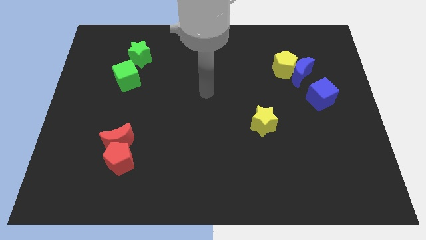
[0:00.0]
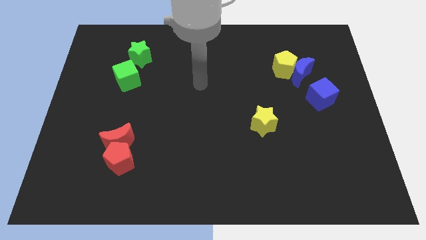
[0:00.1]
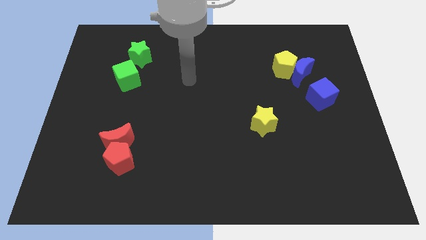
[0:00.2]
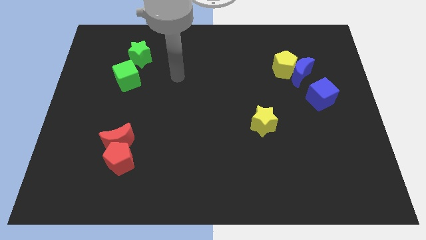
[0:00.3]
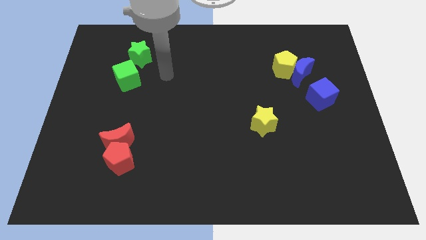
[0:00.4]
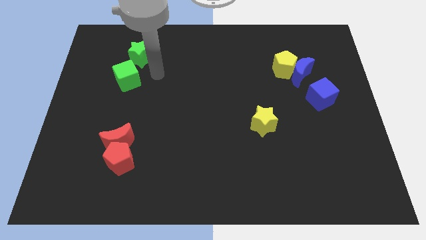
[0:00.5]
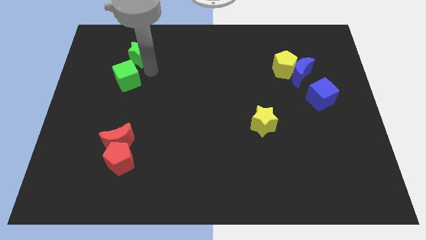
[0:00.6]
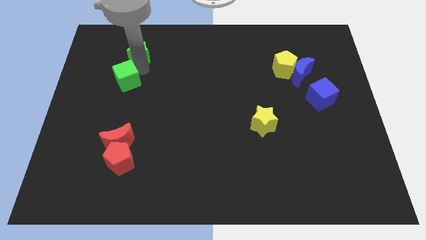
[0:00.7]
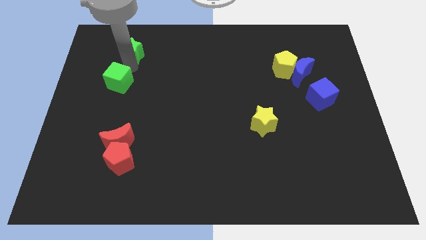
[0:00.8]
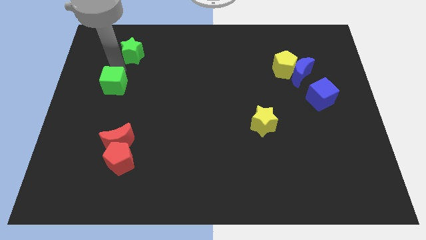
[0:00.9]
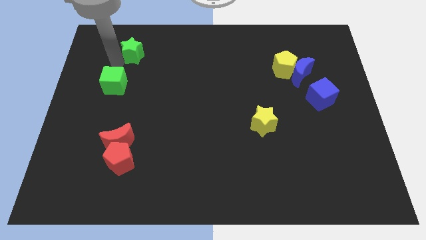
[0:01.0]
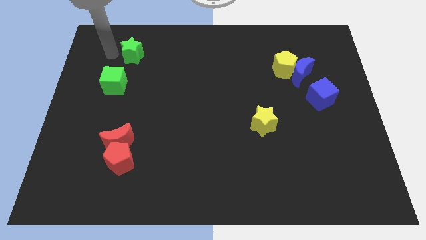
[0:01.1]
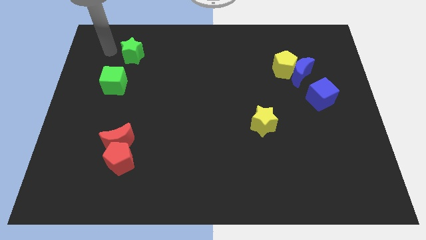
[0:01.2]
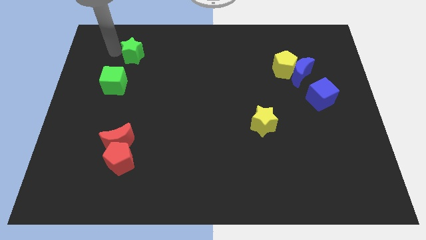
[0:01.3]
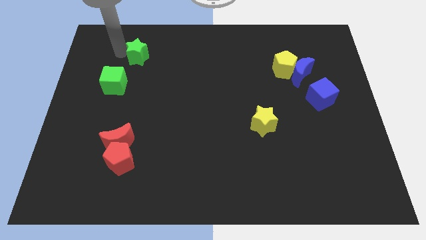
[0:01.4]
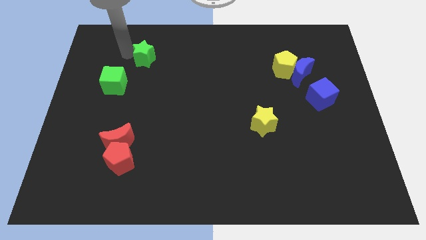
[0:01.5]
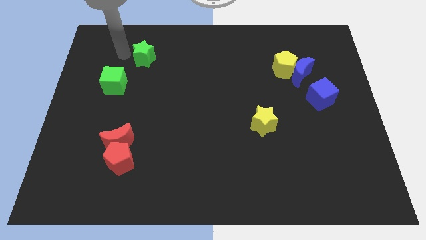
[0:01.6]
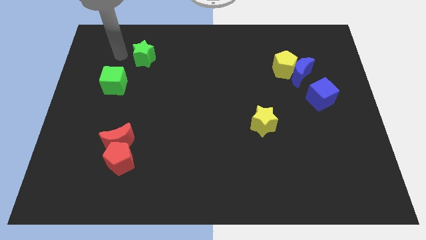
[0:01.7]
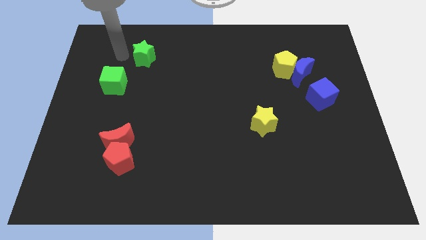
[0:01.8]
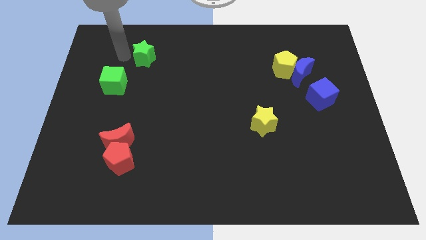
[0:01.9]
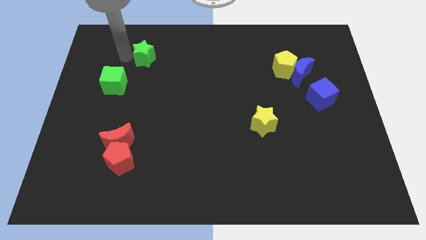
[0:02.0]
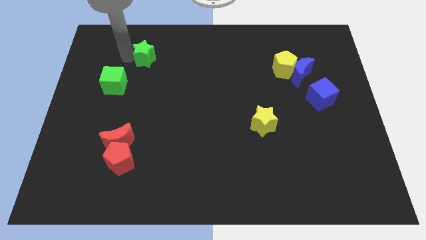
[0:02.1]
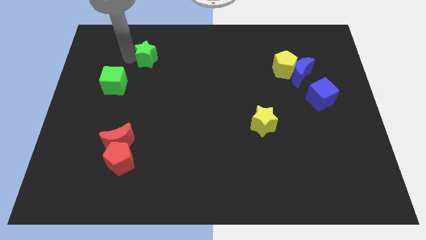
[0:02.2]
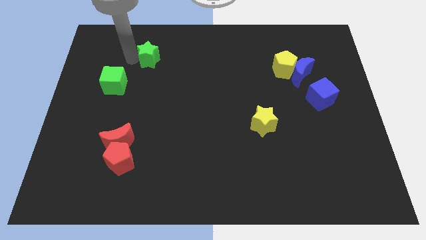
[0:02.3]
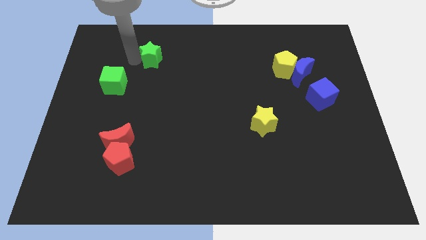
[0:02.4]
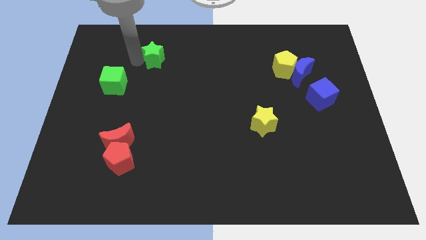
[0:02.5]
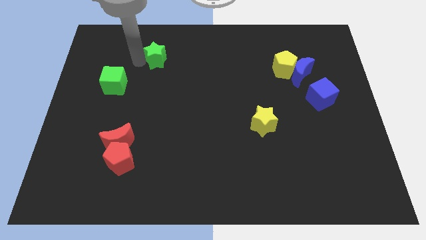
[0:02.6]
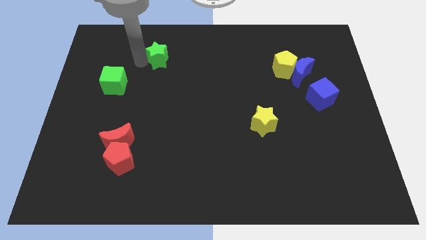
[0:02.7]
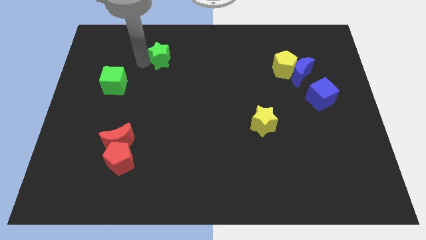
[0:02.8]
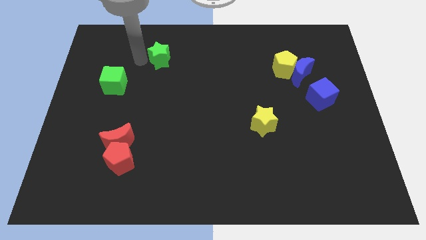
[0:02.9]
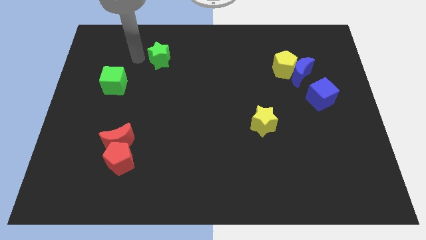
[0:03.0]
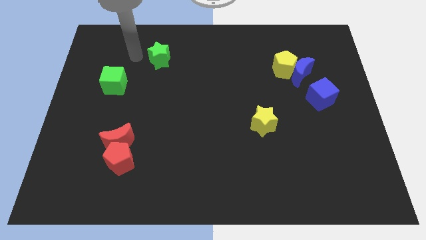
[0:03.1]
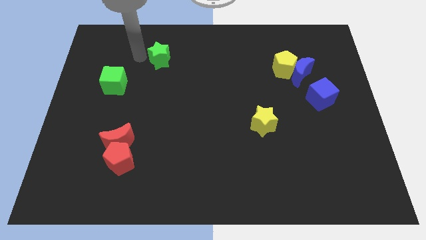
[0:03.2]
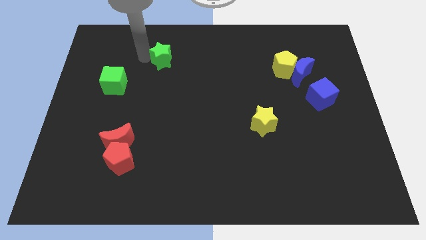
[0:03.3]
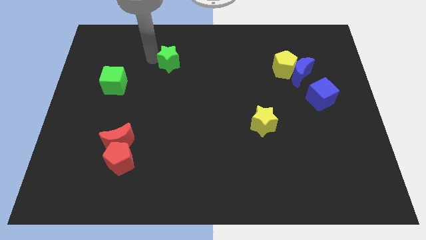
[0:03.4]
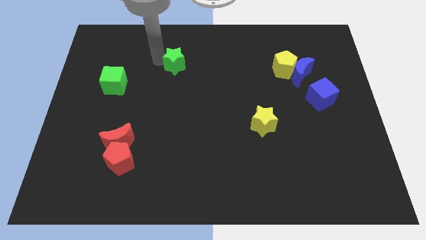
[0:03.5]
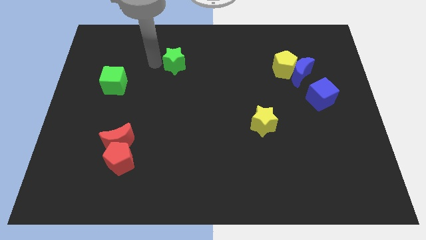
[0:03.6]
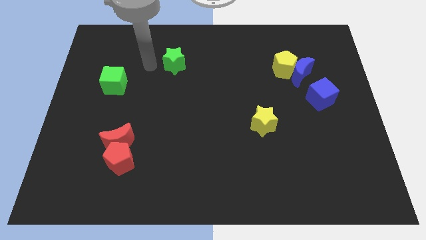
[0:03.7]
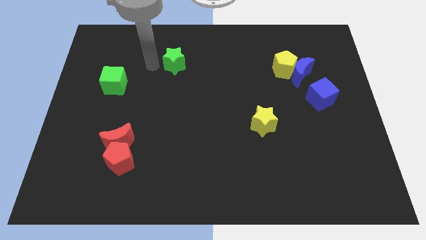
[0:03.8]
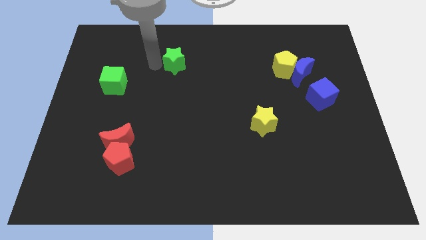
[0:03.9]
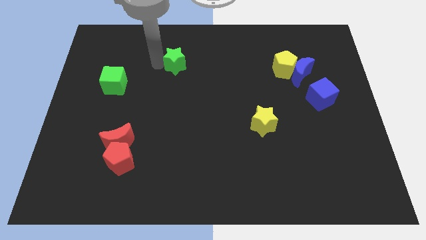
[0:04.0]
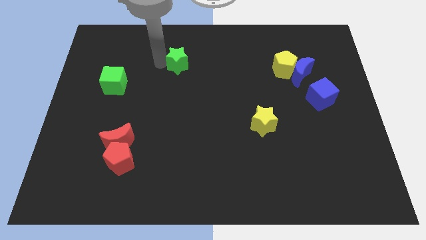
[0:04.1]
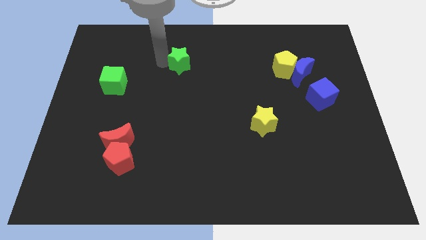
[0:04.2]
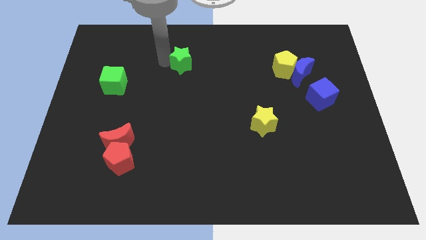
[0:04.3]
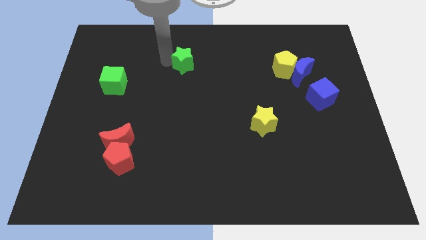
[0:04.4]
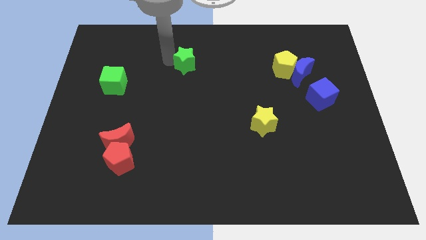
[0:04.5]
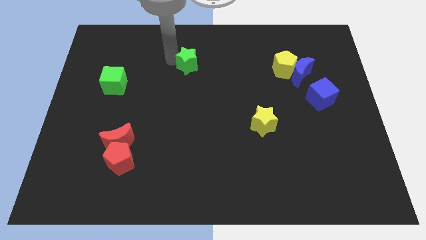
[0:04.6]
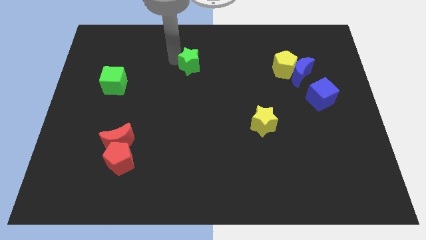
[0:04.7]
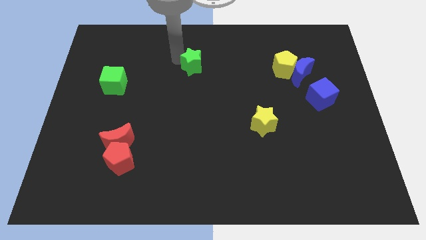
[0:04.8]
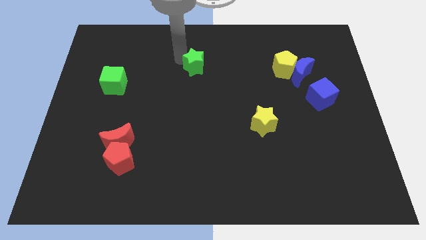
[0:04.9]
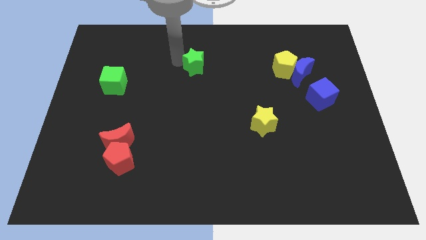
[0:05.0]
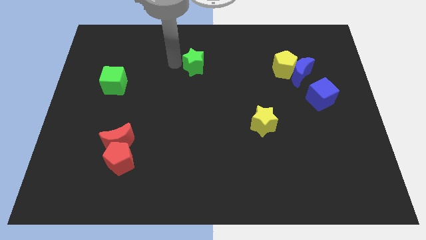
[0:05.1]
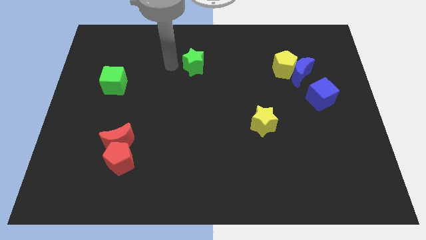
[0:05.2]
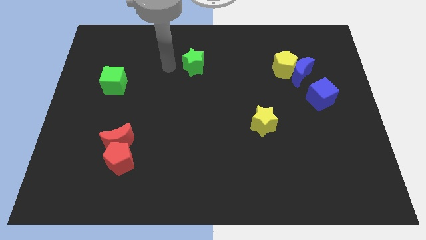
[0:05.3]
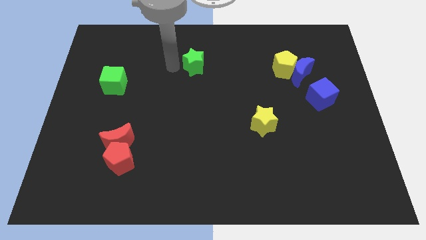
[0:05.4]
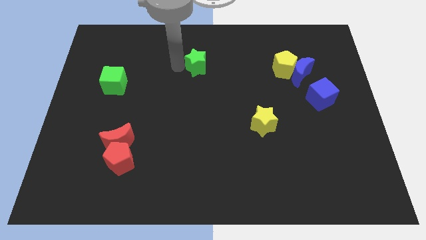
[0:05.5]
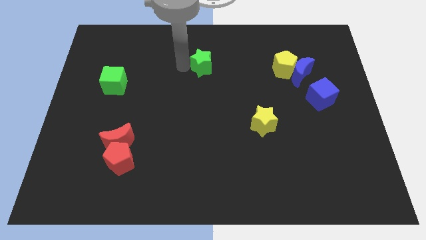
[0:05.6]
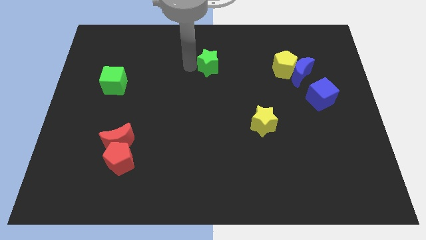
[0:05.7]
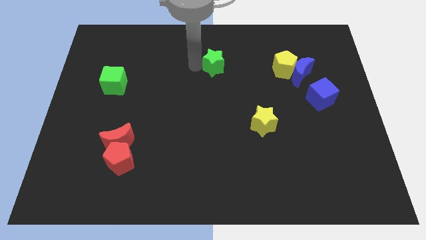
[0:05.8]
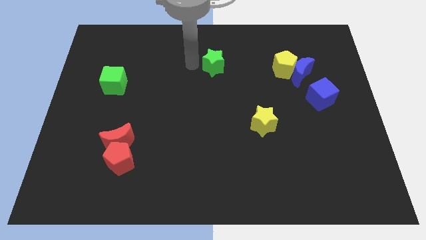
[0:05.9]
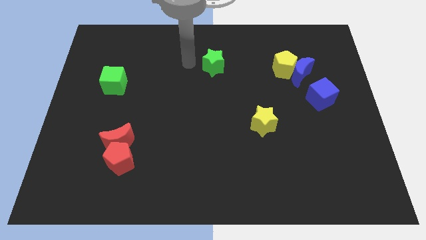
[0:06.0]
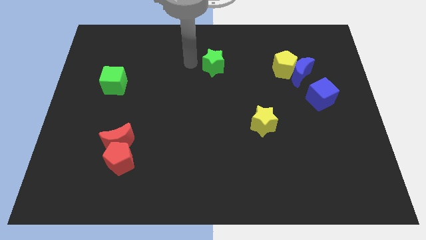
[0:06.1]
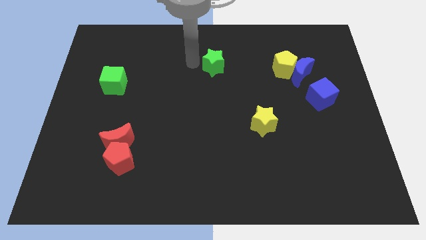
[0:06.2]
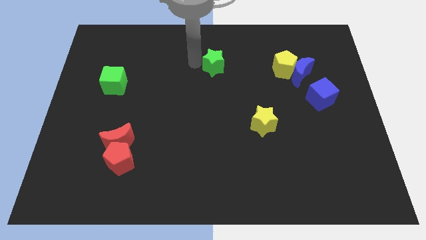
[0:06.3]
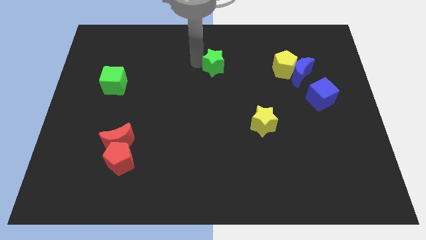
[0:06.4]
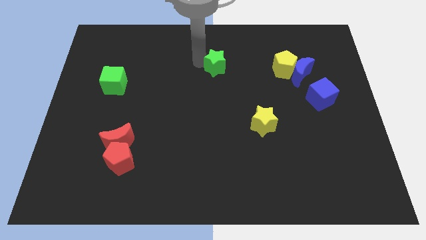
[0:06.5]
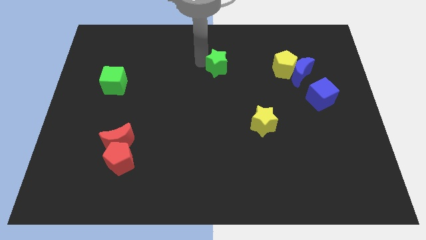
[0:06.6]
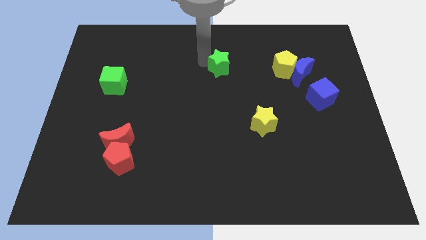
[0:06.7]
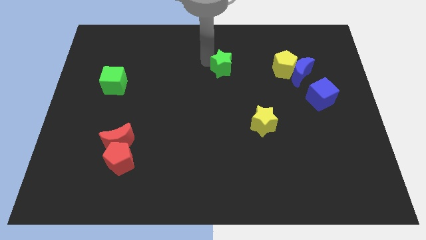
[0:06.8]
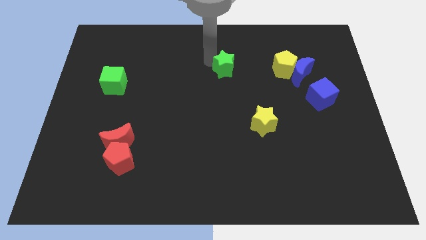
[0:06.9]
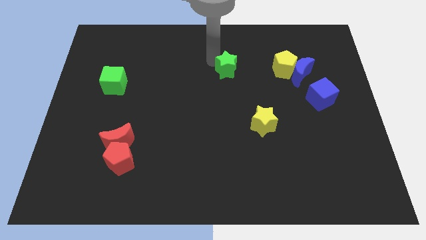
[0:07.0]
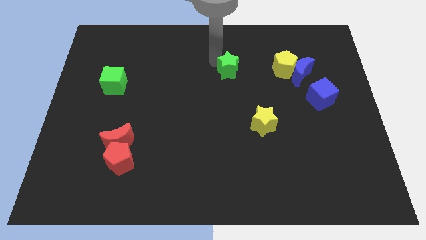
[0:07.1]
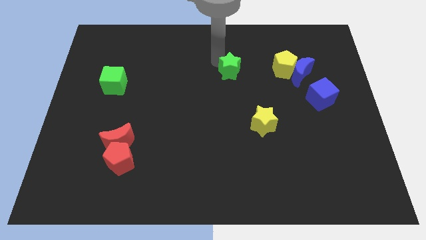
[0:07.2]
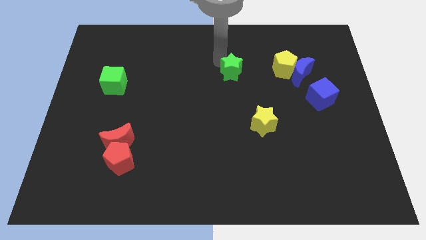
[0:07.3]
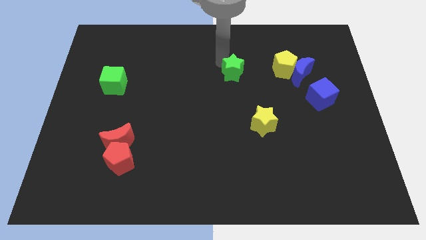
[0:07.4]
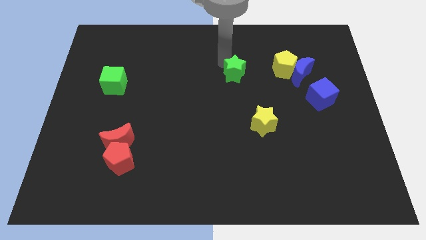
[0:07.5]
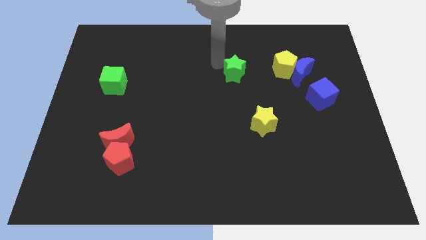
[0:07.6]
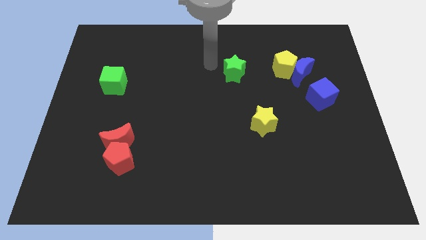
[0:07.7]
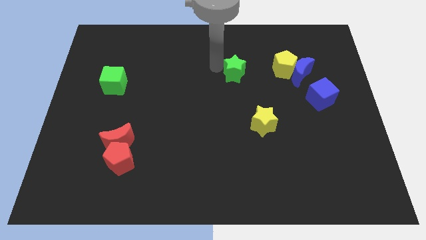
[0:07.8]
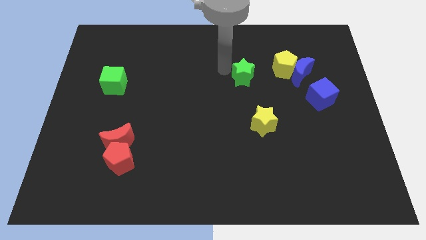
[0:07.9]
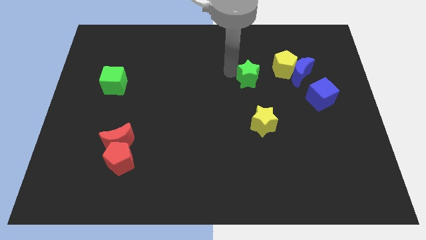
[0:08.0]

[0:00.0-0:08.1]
move the green star to the bottom left of the yellow pentagon
